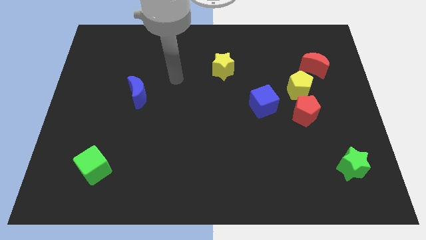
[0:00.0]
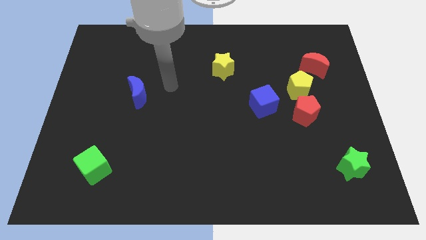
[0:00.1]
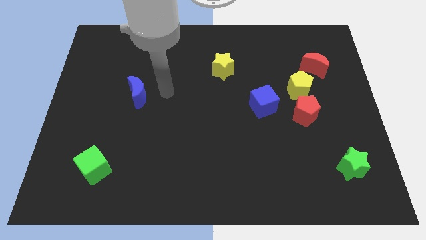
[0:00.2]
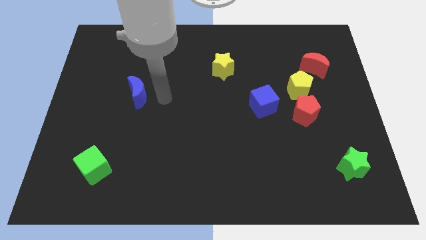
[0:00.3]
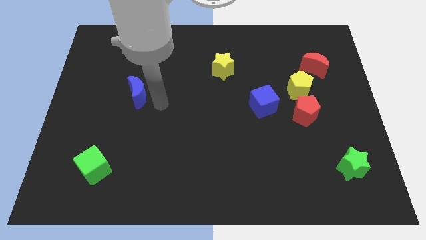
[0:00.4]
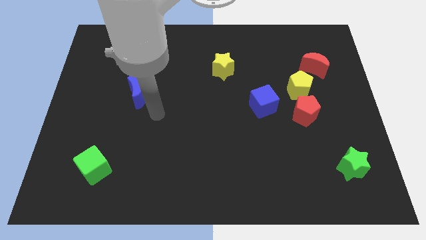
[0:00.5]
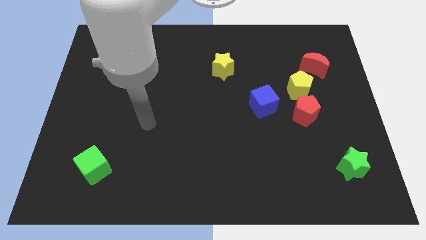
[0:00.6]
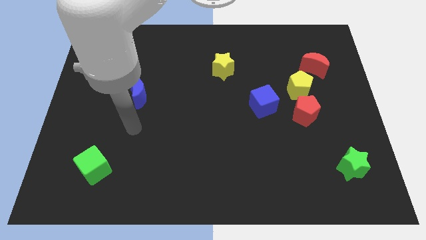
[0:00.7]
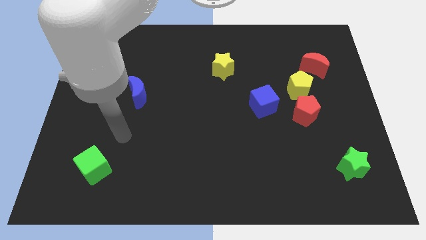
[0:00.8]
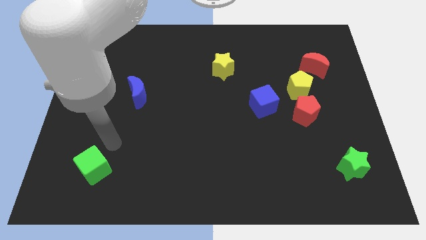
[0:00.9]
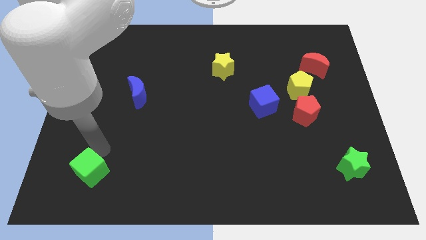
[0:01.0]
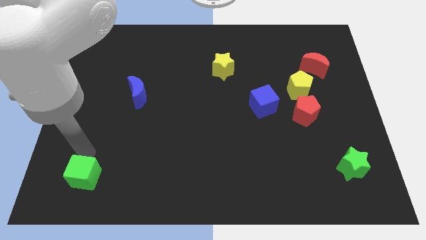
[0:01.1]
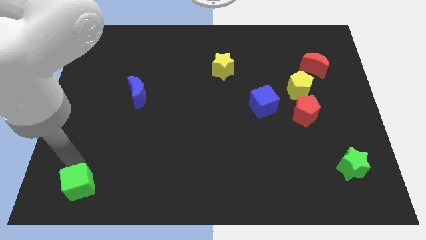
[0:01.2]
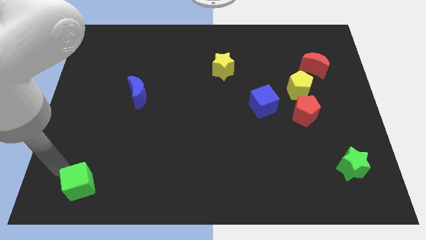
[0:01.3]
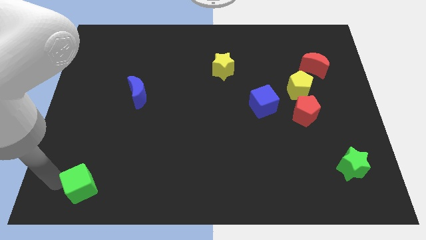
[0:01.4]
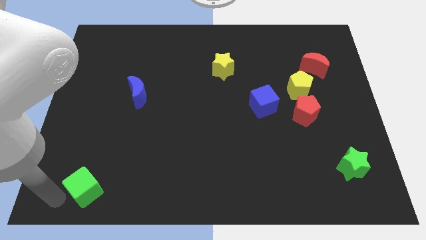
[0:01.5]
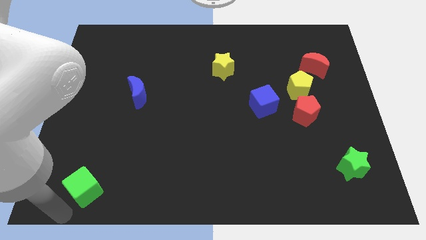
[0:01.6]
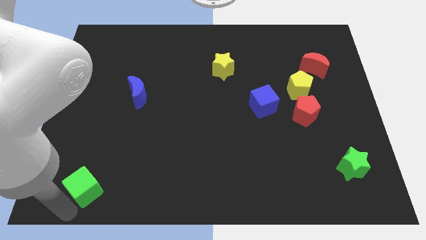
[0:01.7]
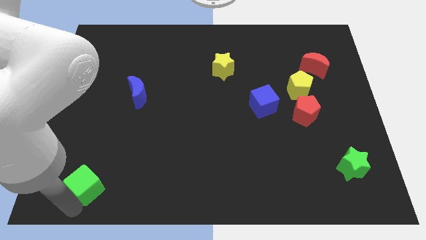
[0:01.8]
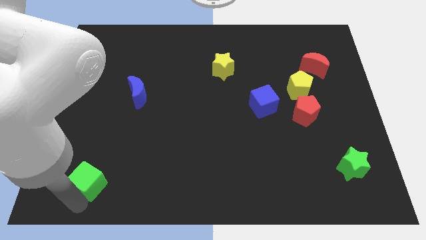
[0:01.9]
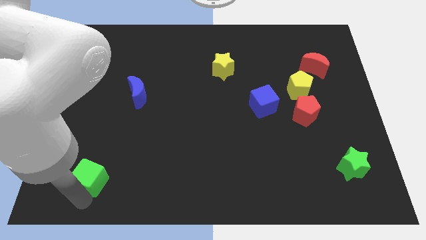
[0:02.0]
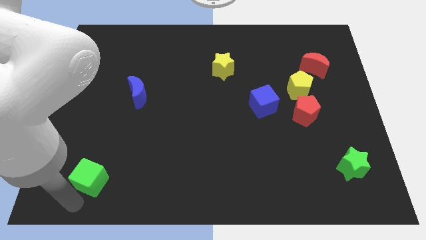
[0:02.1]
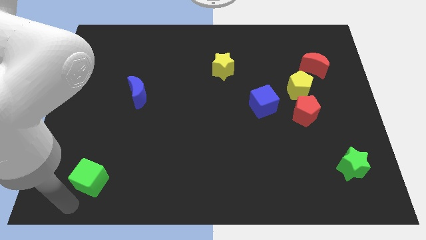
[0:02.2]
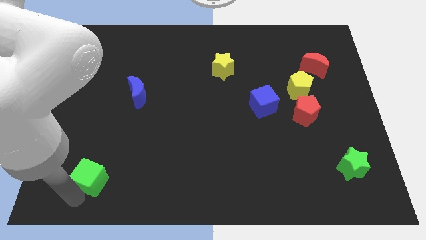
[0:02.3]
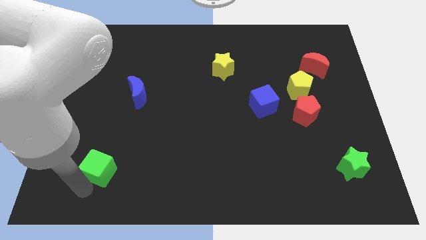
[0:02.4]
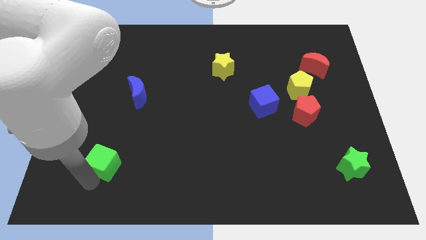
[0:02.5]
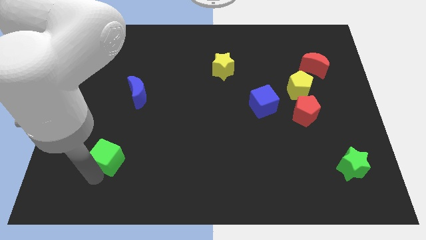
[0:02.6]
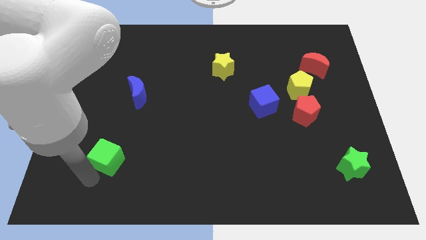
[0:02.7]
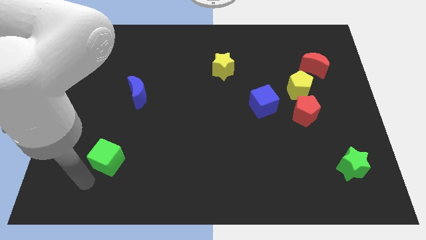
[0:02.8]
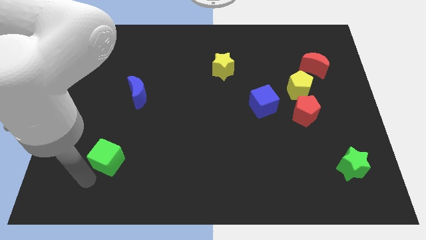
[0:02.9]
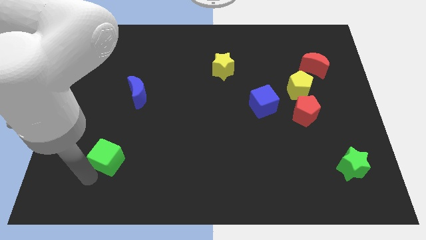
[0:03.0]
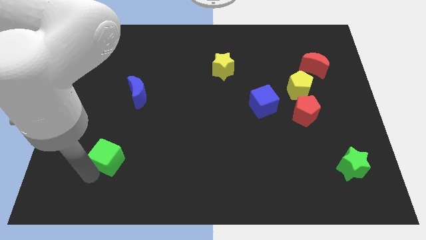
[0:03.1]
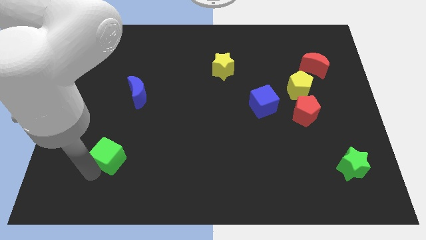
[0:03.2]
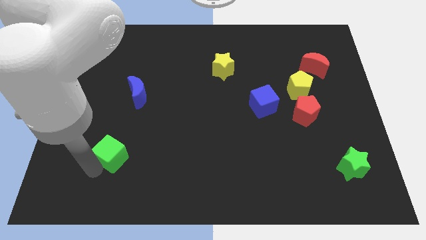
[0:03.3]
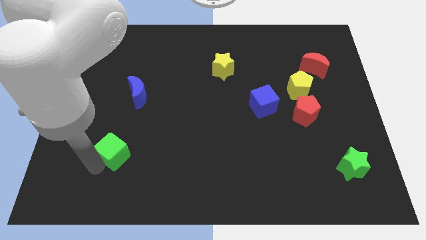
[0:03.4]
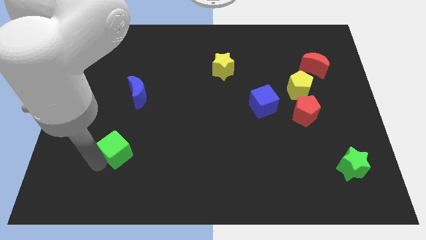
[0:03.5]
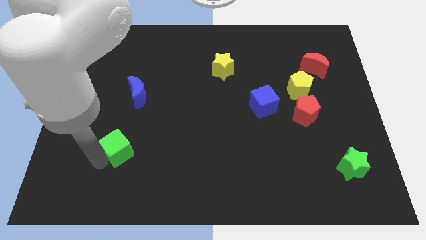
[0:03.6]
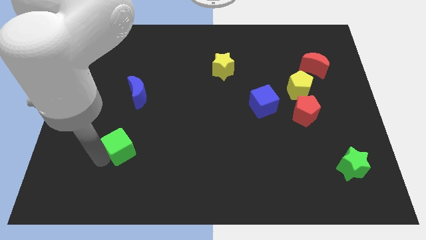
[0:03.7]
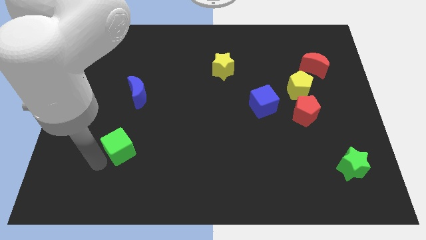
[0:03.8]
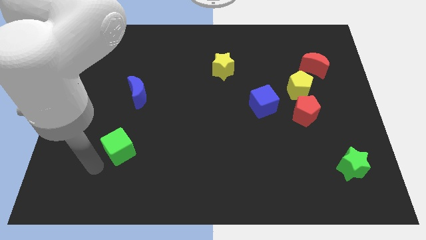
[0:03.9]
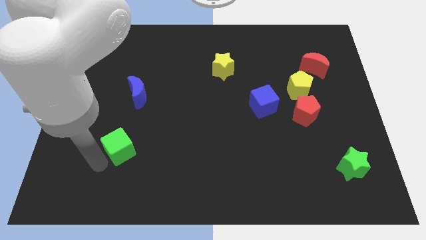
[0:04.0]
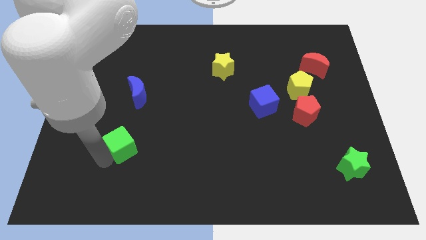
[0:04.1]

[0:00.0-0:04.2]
push the green cube a little bit up and right diagonally

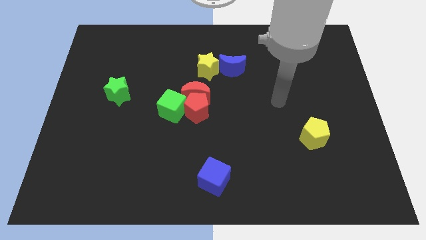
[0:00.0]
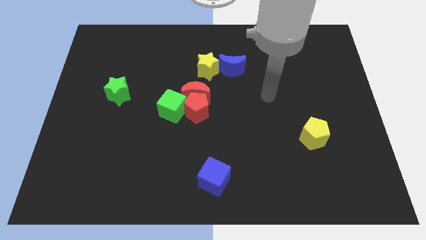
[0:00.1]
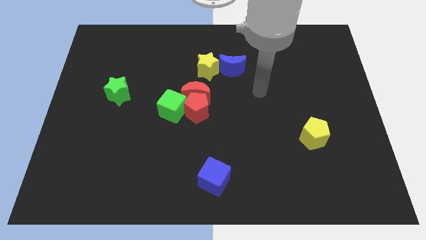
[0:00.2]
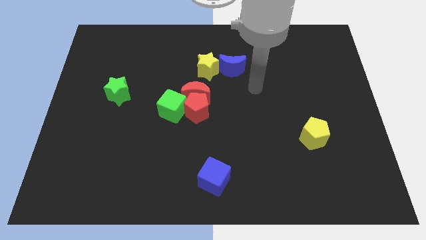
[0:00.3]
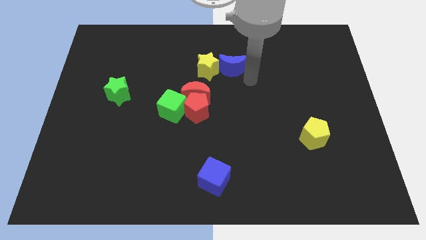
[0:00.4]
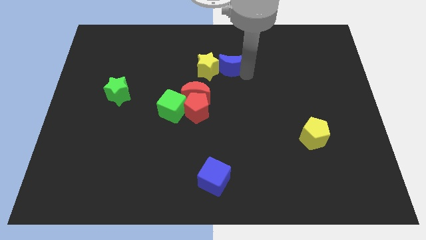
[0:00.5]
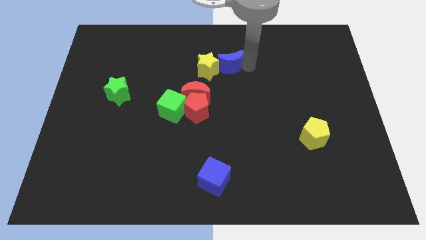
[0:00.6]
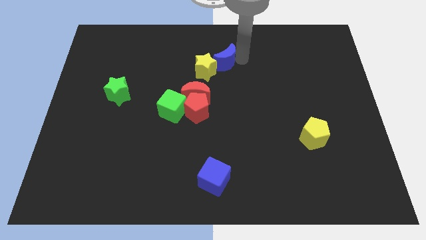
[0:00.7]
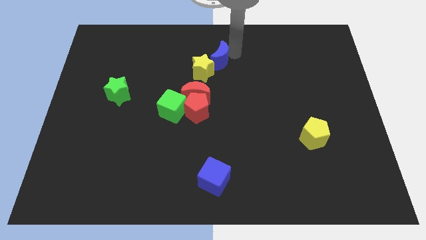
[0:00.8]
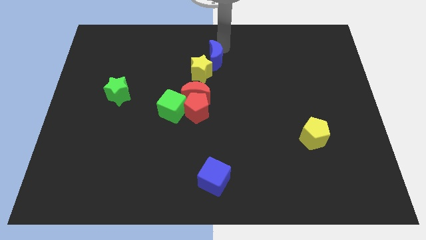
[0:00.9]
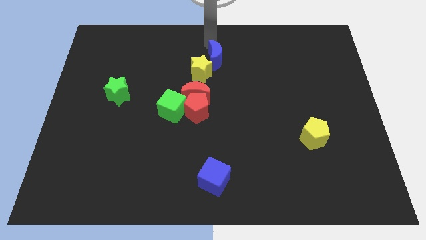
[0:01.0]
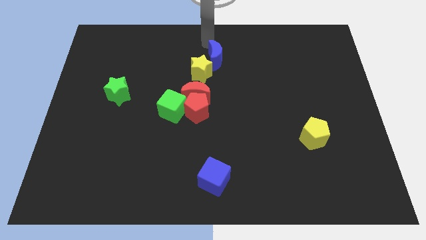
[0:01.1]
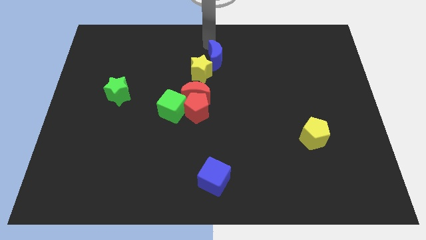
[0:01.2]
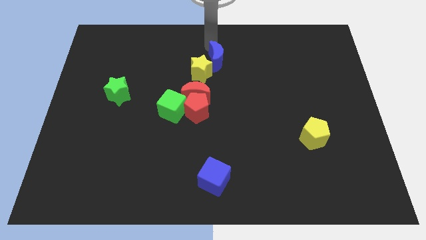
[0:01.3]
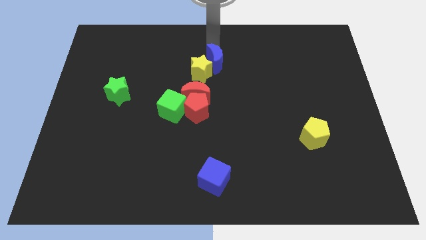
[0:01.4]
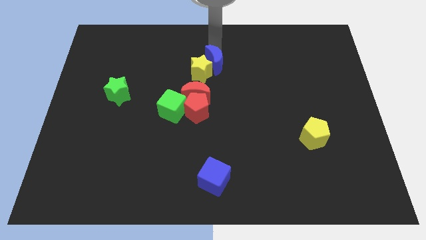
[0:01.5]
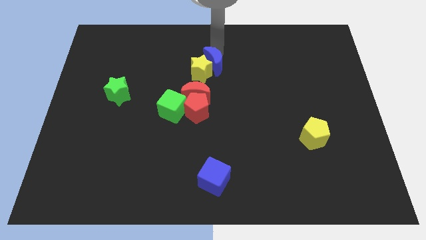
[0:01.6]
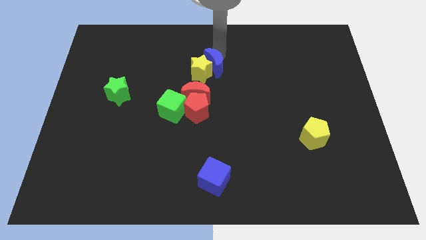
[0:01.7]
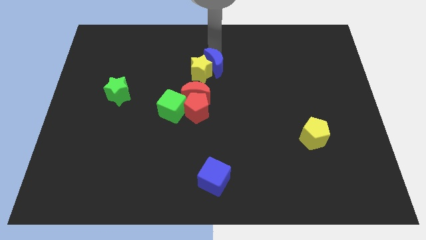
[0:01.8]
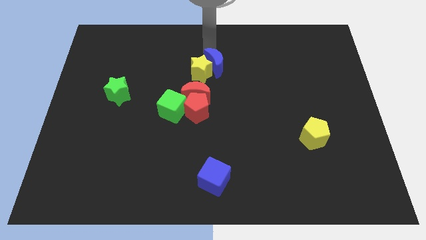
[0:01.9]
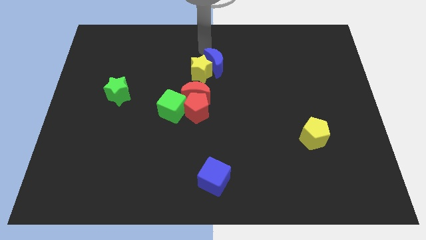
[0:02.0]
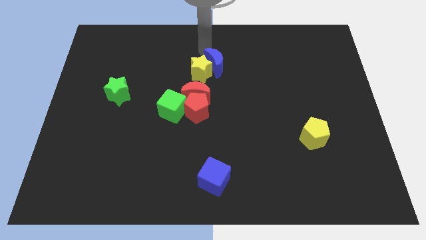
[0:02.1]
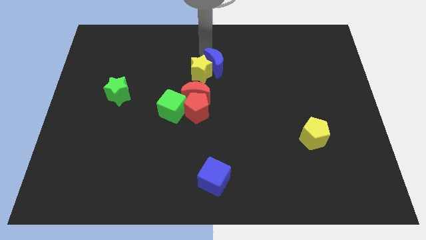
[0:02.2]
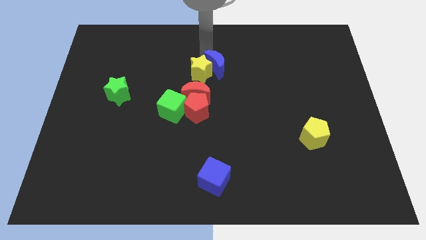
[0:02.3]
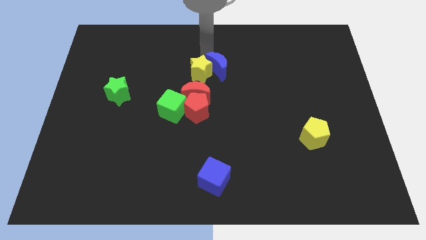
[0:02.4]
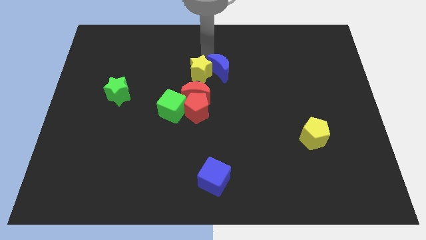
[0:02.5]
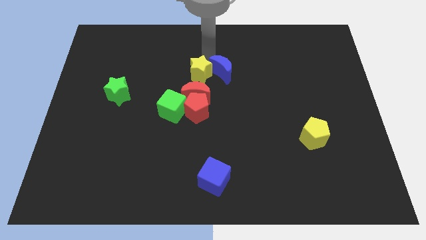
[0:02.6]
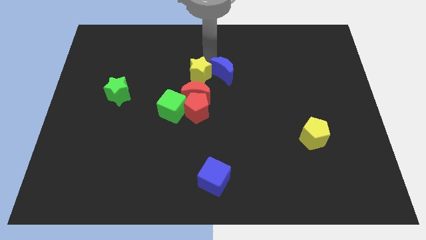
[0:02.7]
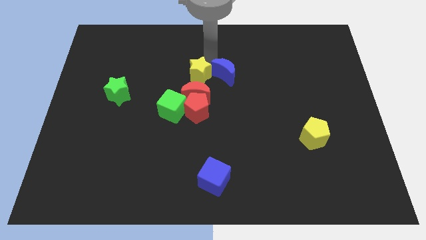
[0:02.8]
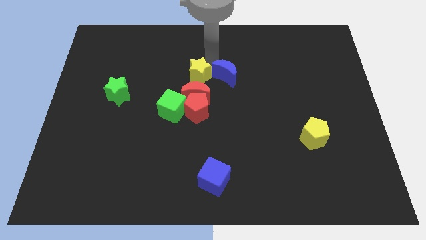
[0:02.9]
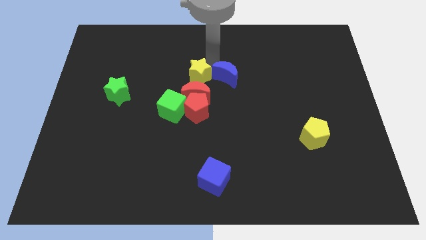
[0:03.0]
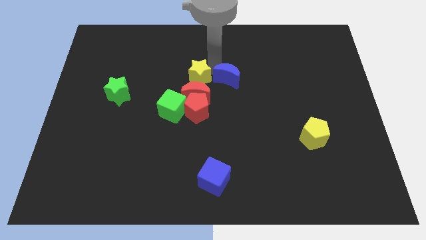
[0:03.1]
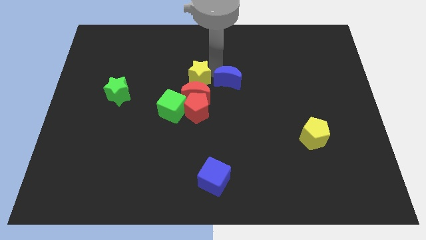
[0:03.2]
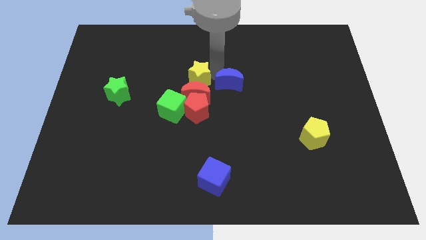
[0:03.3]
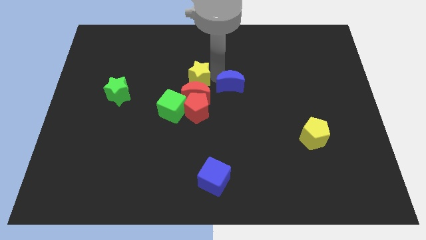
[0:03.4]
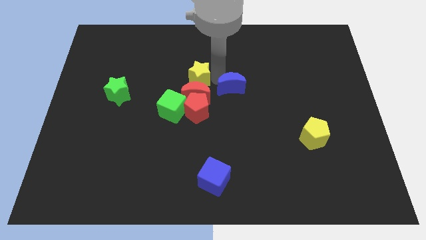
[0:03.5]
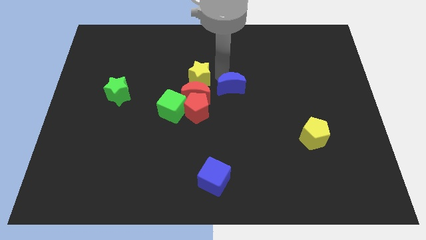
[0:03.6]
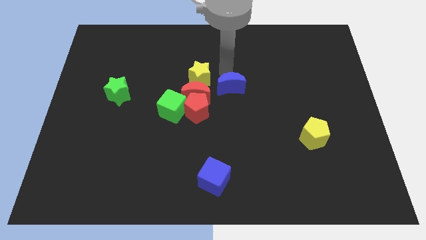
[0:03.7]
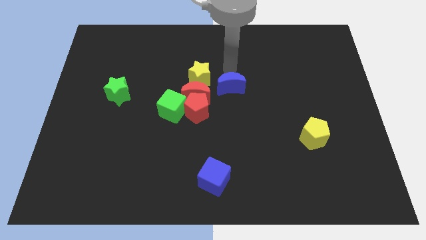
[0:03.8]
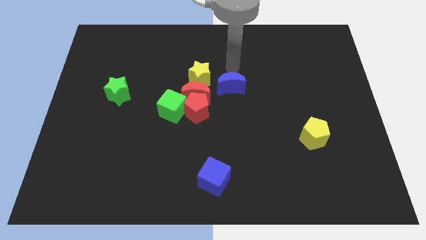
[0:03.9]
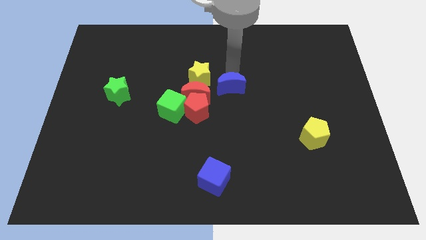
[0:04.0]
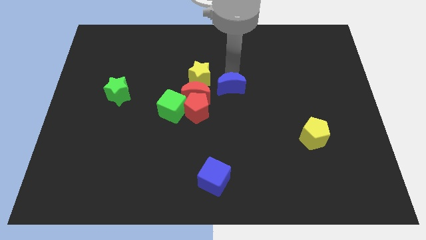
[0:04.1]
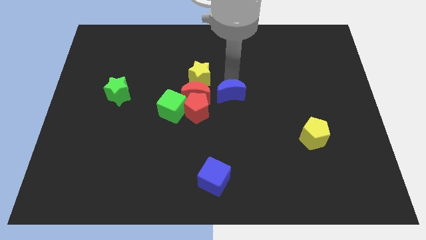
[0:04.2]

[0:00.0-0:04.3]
slightly slide the blue moon downwards
